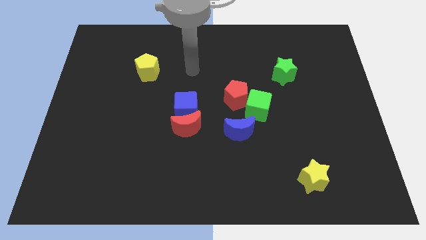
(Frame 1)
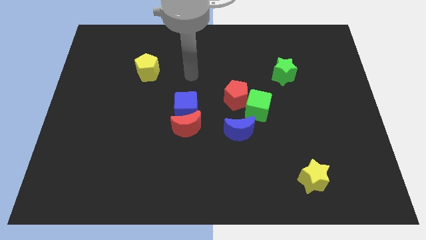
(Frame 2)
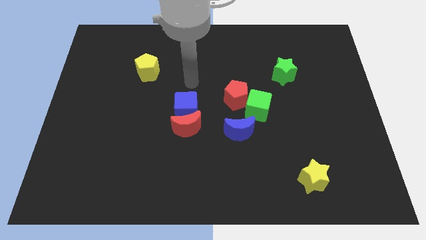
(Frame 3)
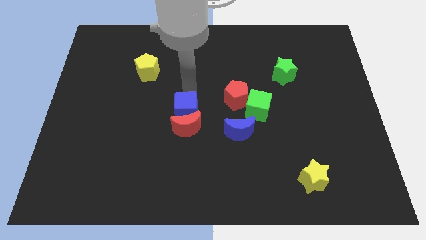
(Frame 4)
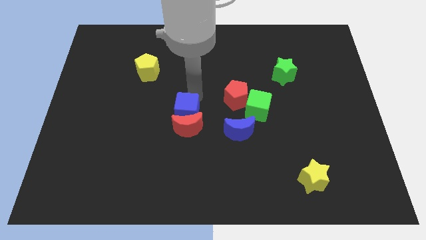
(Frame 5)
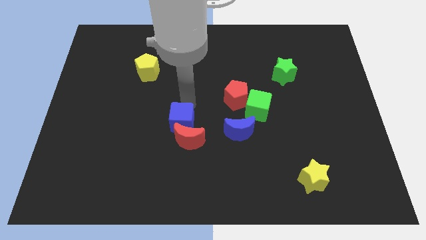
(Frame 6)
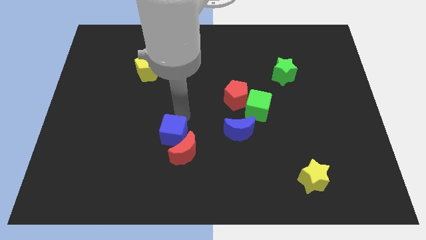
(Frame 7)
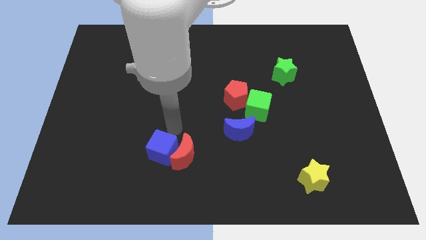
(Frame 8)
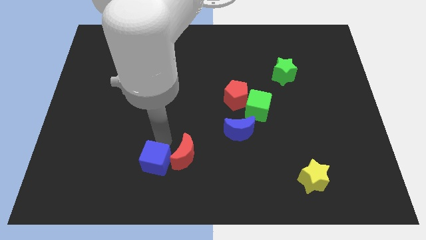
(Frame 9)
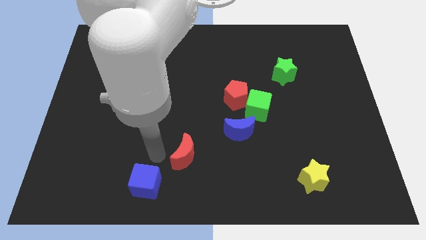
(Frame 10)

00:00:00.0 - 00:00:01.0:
pull the red moon apart from the blue cube

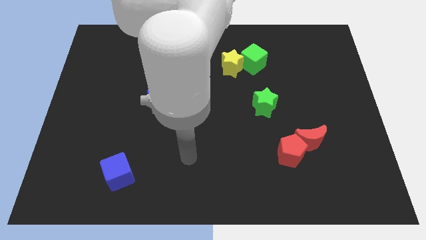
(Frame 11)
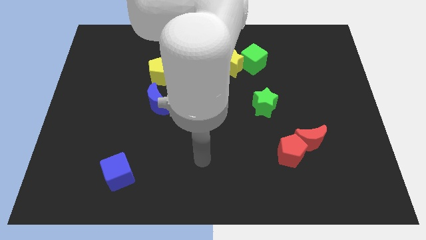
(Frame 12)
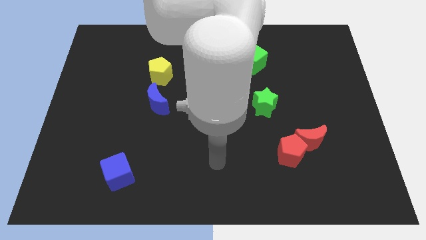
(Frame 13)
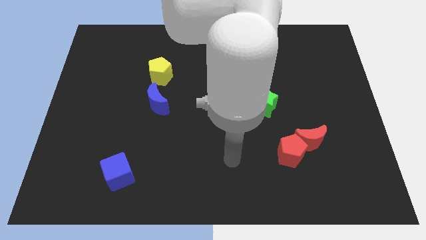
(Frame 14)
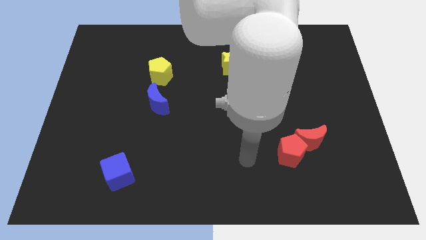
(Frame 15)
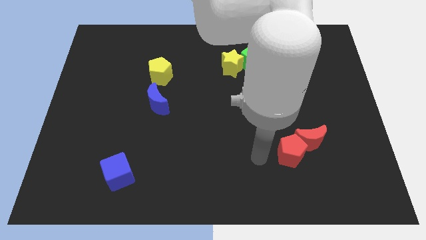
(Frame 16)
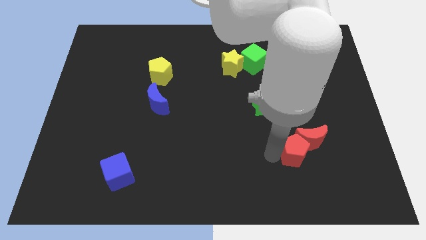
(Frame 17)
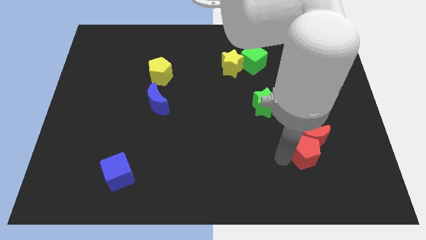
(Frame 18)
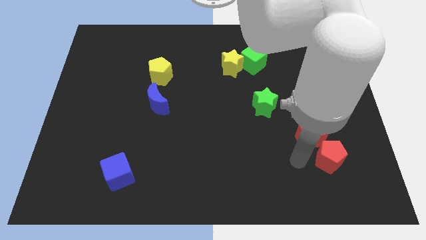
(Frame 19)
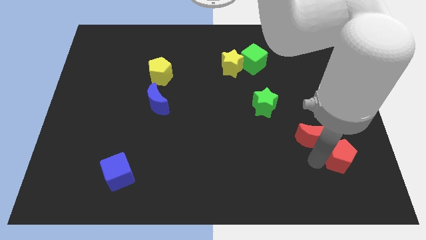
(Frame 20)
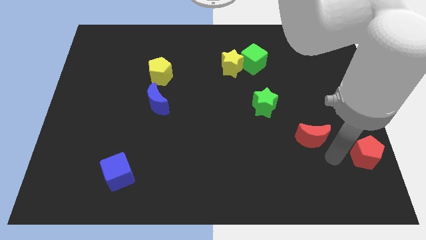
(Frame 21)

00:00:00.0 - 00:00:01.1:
move the red moon away from the red pentagon

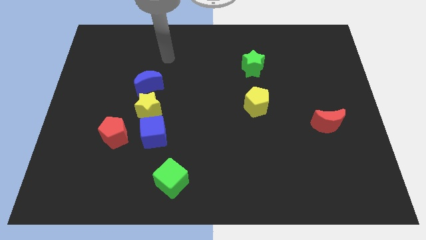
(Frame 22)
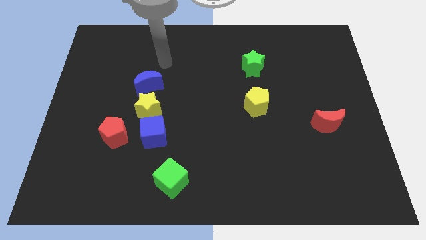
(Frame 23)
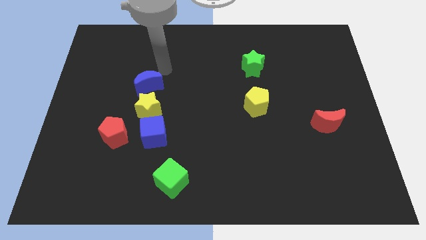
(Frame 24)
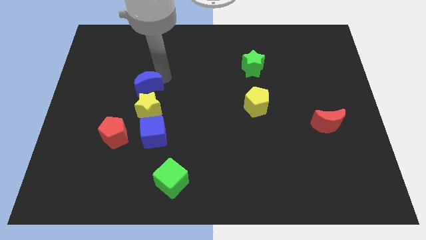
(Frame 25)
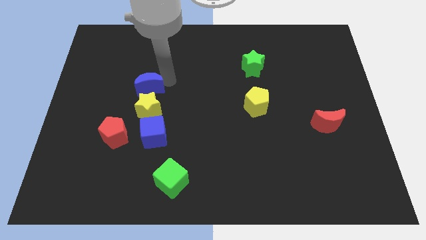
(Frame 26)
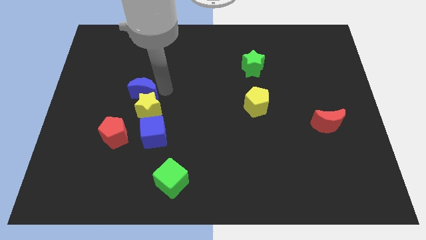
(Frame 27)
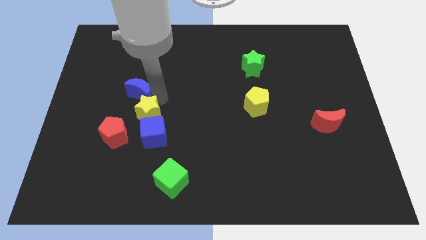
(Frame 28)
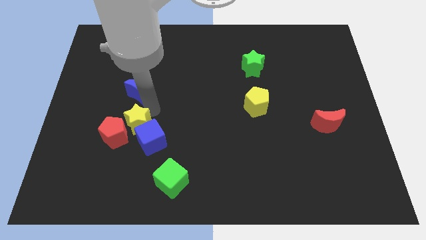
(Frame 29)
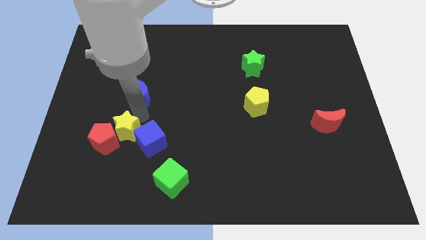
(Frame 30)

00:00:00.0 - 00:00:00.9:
pull the blue moon apart from the yellow star

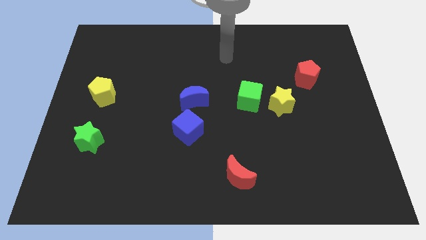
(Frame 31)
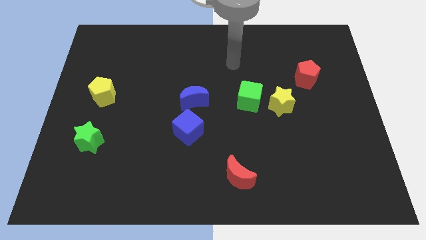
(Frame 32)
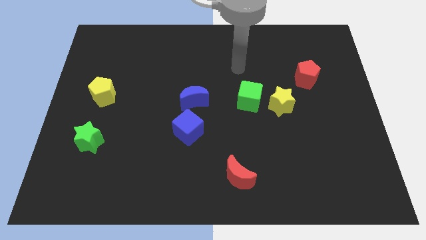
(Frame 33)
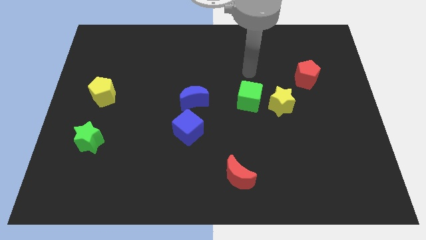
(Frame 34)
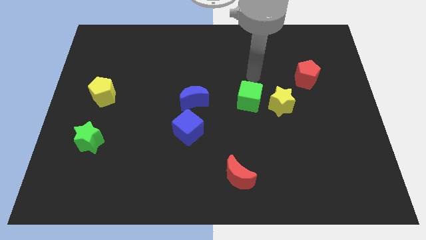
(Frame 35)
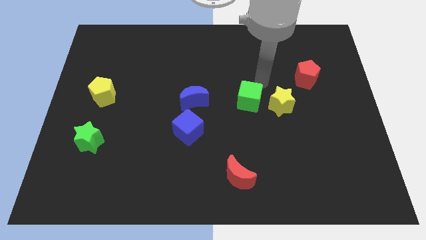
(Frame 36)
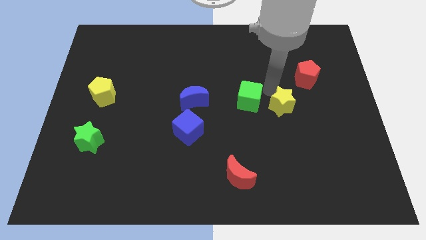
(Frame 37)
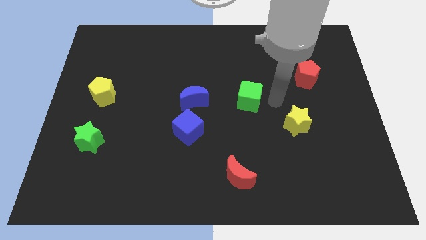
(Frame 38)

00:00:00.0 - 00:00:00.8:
separate the green cube from the yellow star

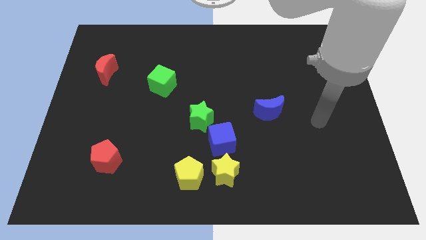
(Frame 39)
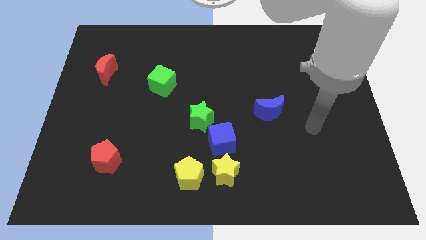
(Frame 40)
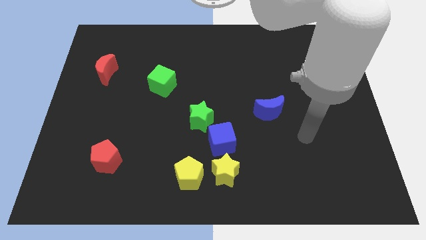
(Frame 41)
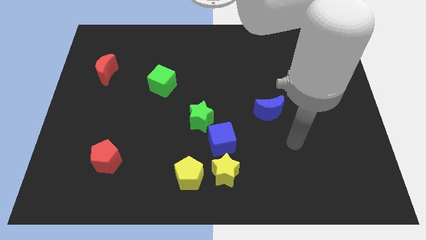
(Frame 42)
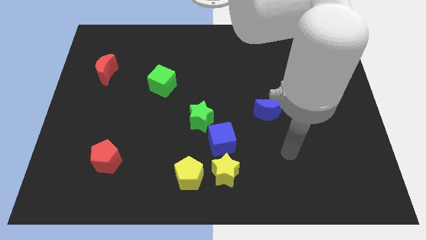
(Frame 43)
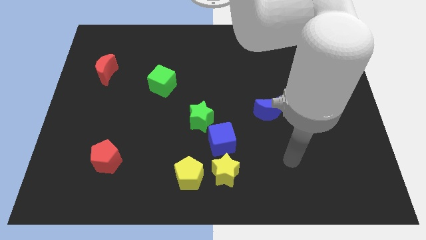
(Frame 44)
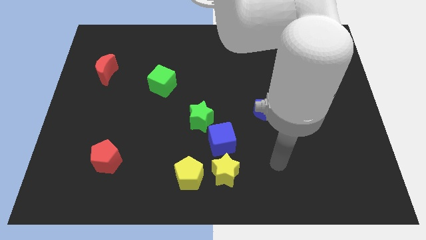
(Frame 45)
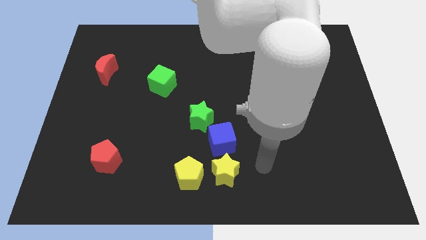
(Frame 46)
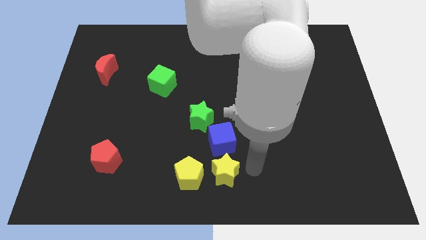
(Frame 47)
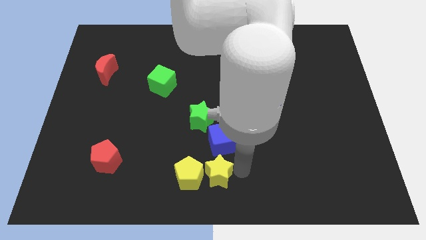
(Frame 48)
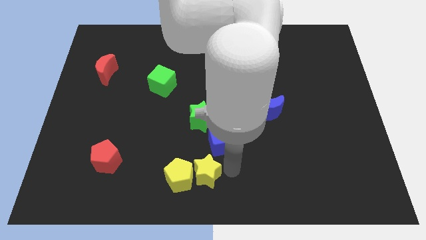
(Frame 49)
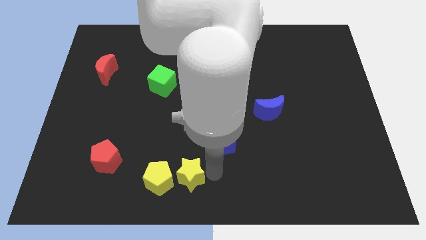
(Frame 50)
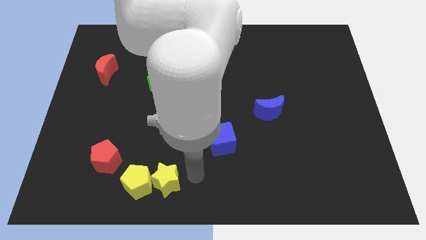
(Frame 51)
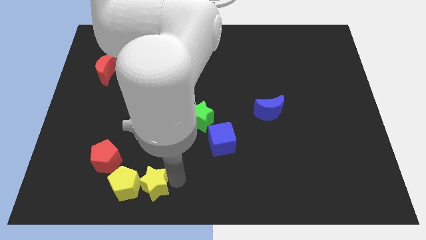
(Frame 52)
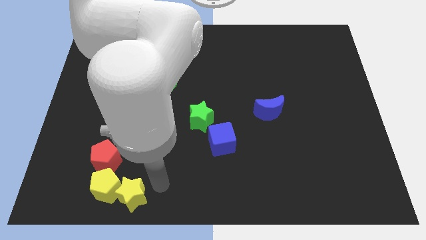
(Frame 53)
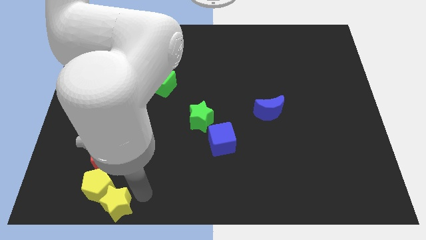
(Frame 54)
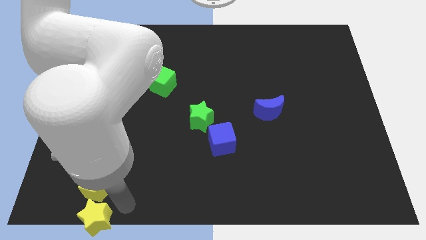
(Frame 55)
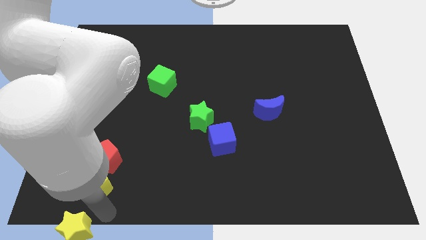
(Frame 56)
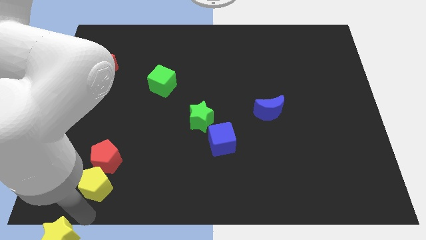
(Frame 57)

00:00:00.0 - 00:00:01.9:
separate the yellow pentagon from the yellow star

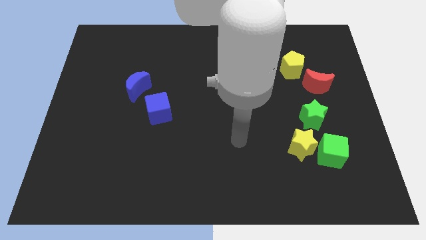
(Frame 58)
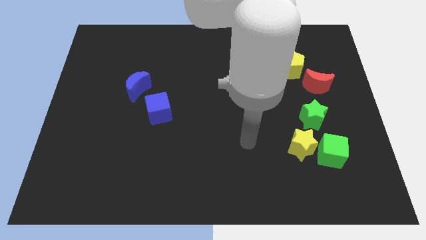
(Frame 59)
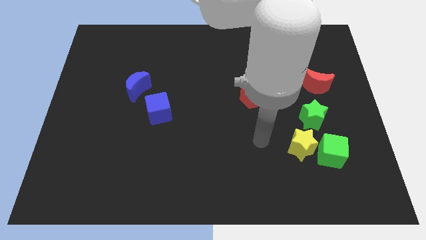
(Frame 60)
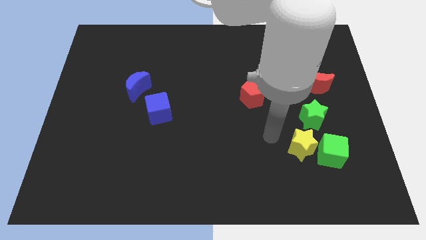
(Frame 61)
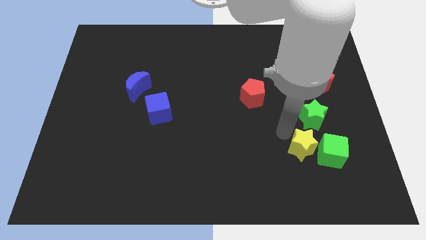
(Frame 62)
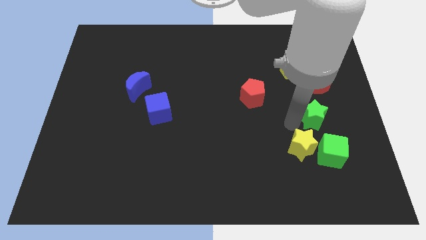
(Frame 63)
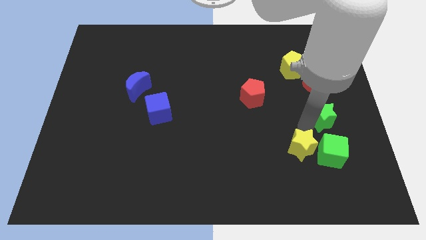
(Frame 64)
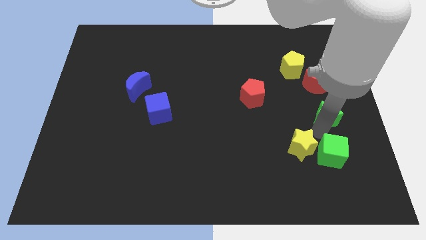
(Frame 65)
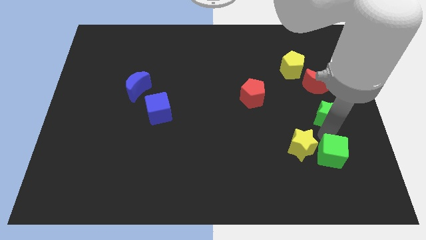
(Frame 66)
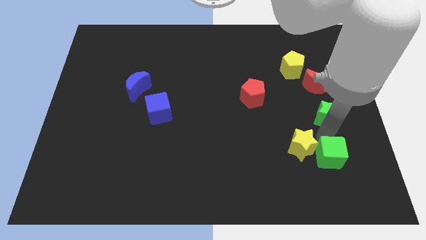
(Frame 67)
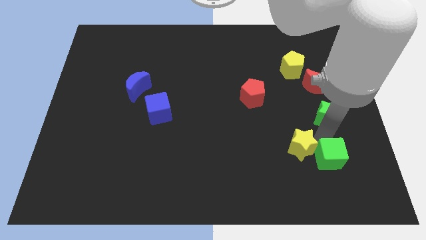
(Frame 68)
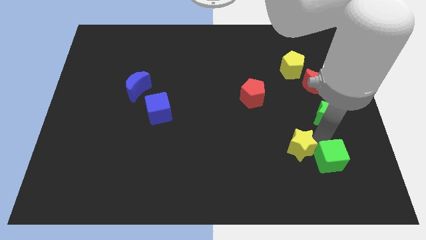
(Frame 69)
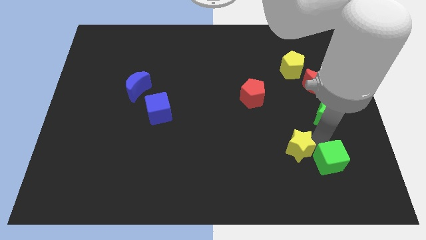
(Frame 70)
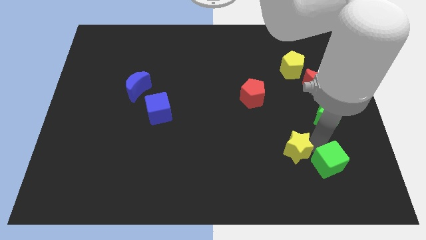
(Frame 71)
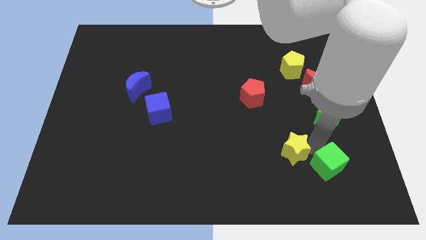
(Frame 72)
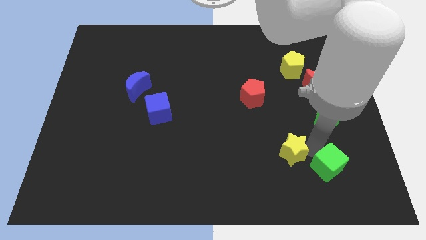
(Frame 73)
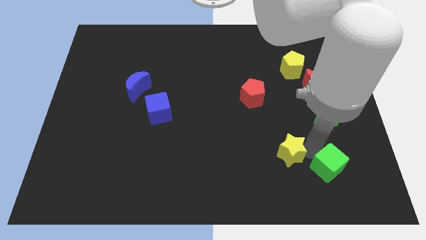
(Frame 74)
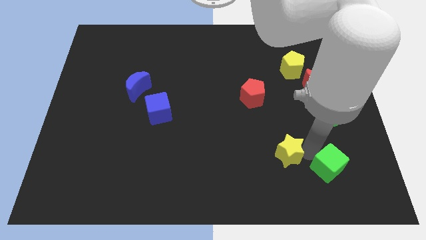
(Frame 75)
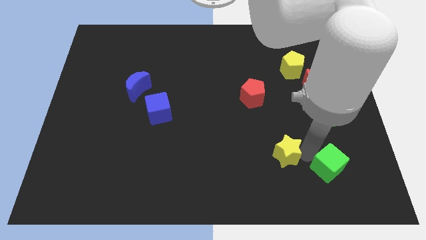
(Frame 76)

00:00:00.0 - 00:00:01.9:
move the yellow star away from the green cube and green star

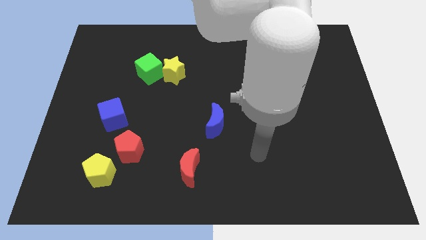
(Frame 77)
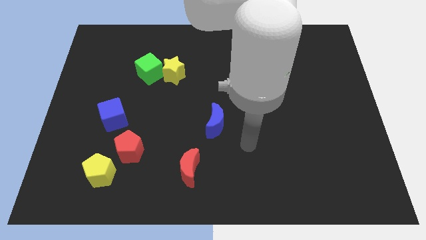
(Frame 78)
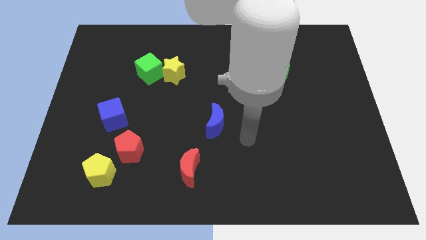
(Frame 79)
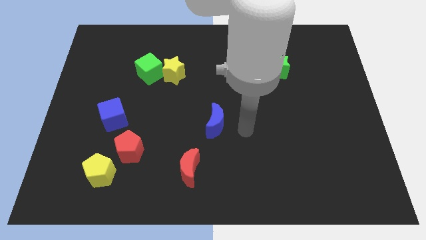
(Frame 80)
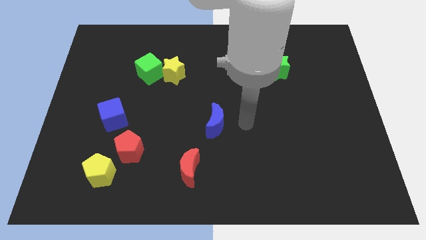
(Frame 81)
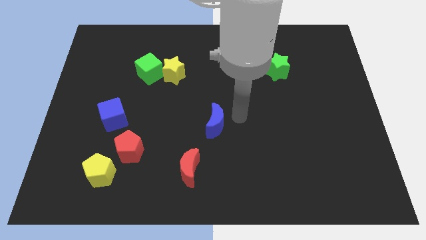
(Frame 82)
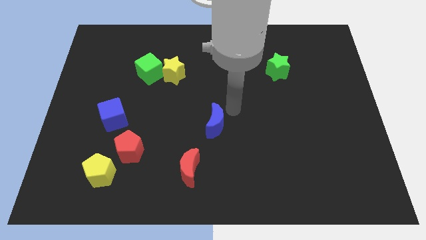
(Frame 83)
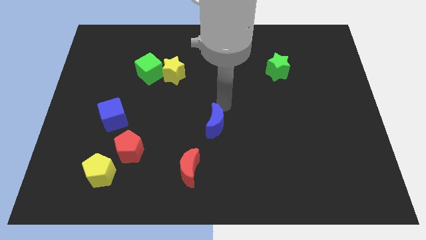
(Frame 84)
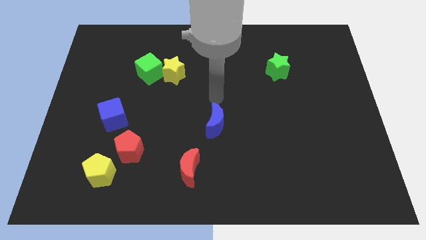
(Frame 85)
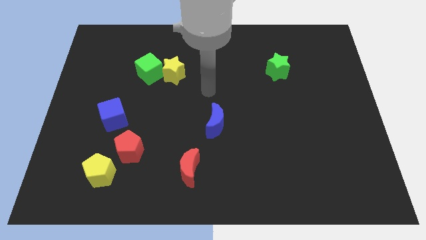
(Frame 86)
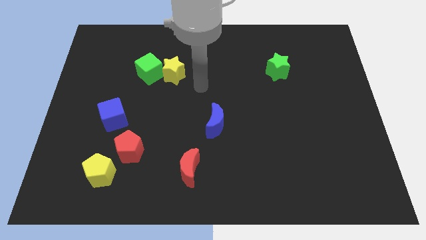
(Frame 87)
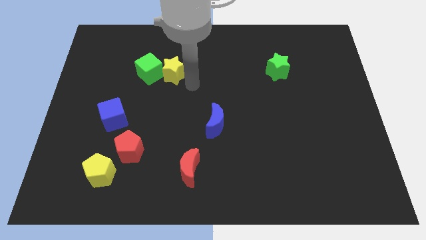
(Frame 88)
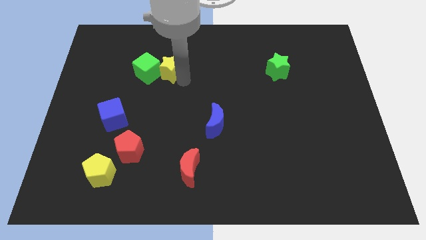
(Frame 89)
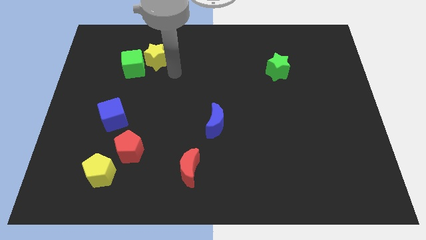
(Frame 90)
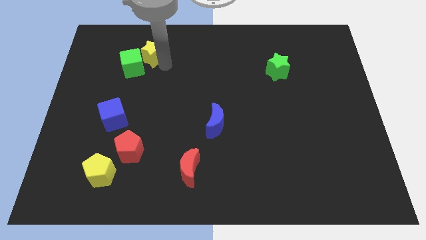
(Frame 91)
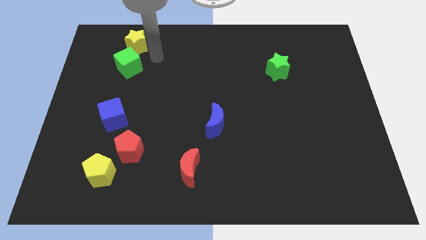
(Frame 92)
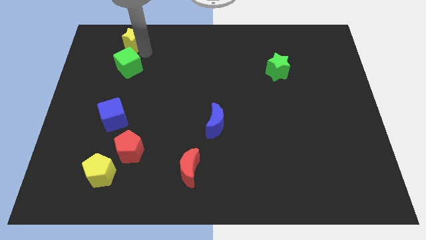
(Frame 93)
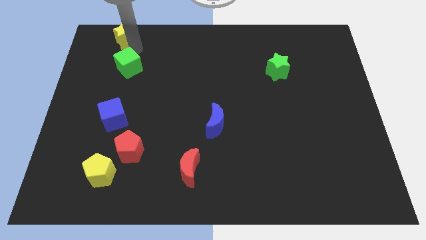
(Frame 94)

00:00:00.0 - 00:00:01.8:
pull the green cube apart from the yellow star

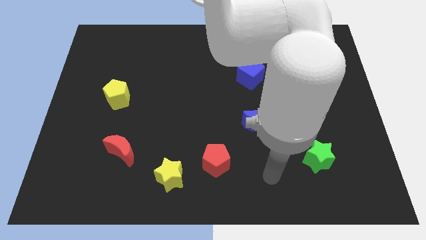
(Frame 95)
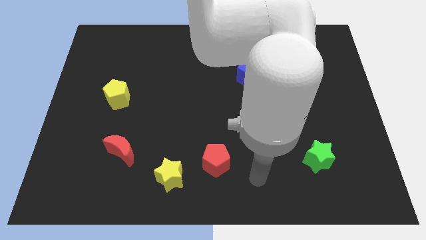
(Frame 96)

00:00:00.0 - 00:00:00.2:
separate the red pentagon from the yellow star
